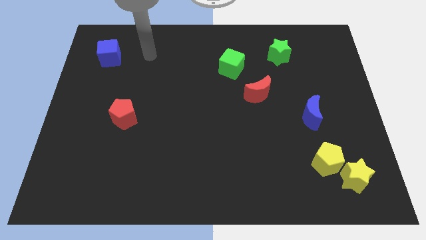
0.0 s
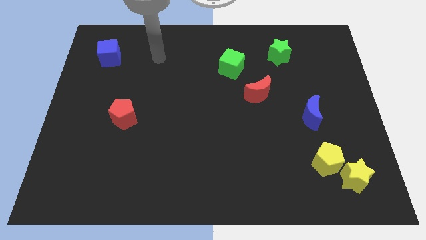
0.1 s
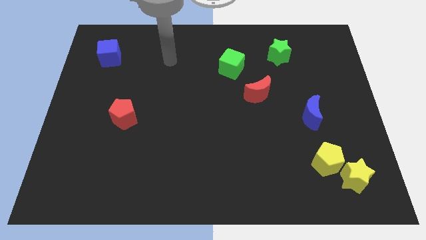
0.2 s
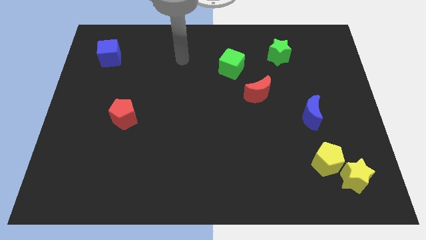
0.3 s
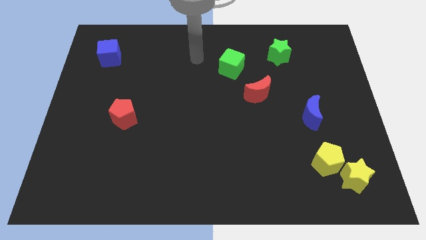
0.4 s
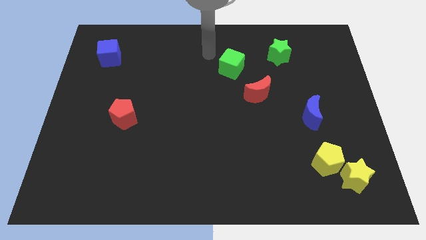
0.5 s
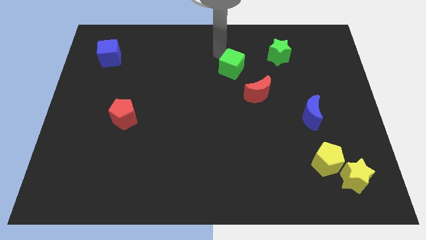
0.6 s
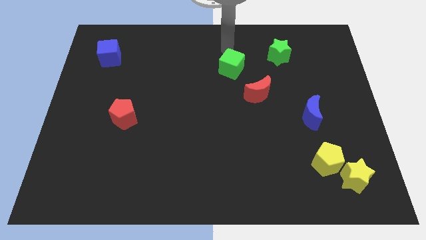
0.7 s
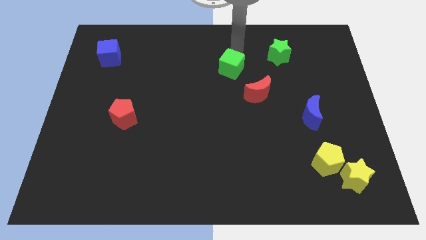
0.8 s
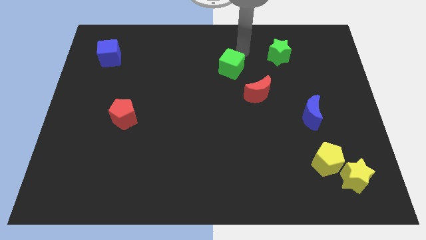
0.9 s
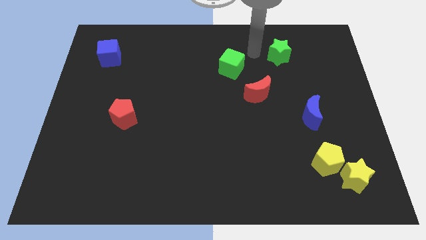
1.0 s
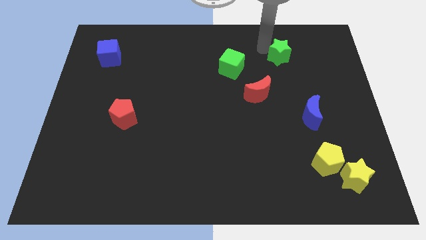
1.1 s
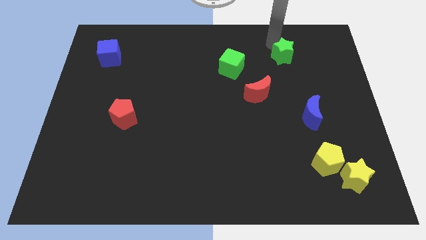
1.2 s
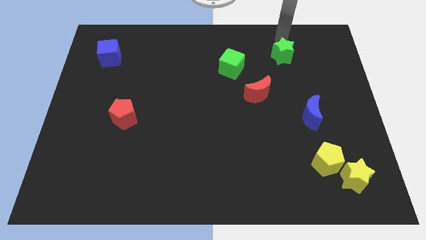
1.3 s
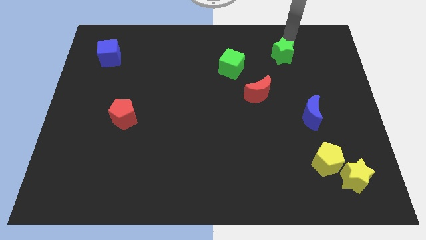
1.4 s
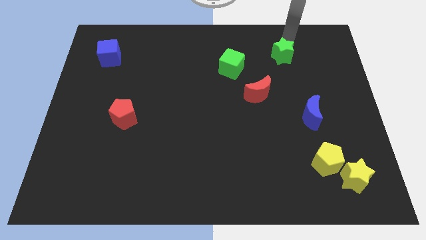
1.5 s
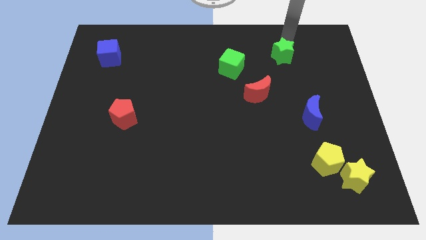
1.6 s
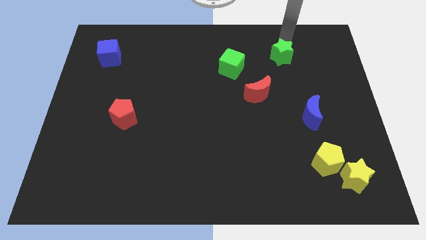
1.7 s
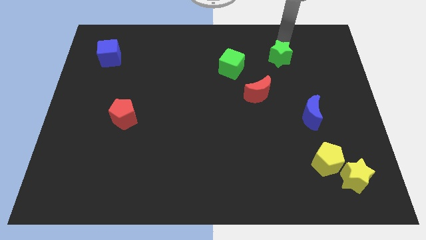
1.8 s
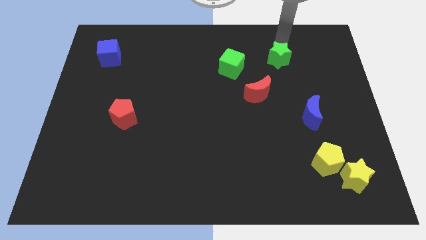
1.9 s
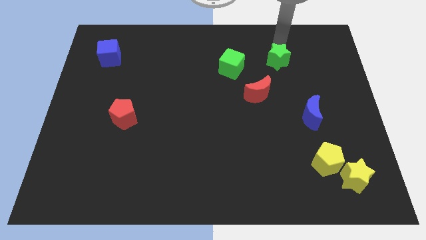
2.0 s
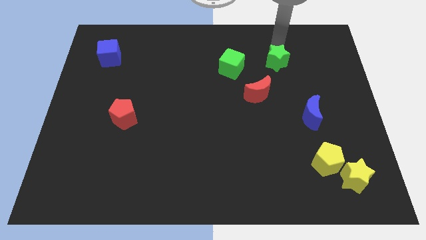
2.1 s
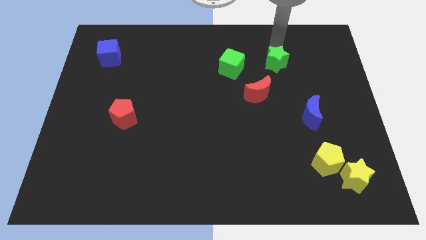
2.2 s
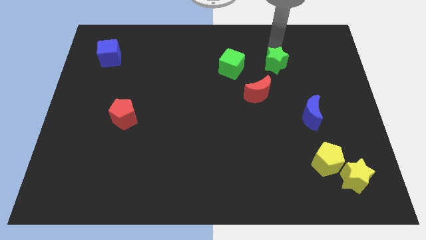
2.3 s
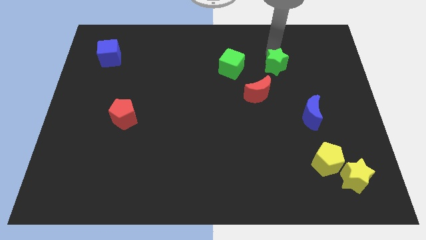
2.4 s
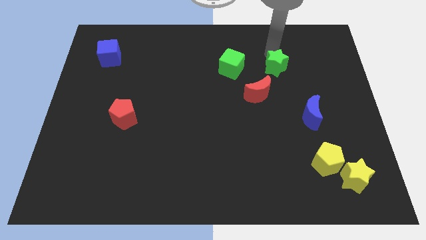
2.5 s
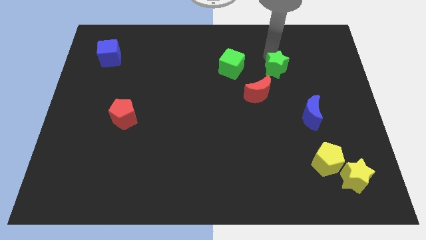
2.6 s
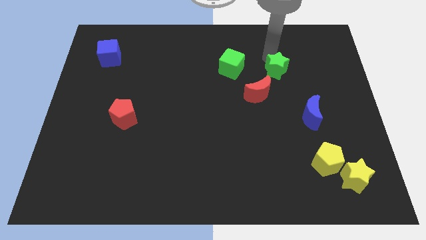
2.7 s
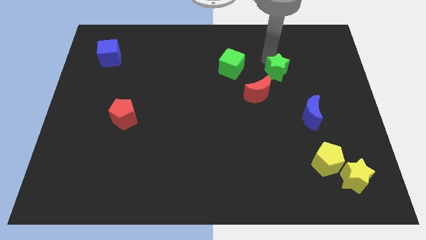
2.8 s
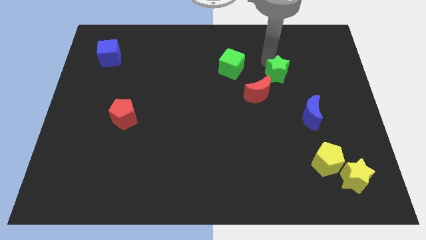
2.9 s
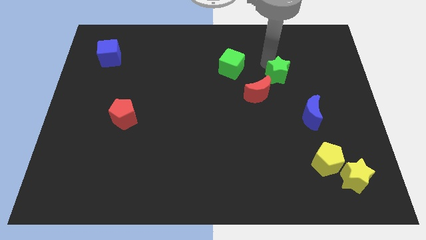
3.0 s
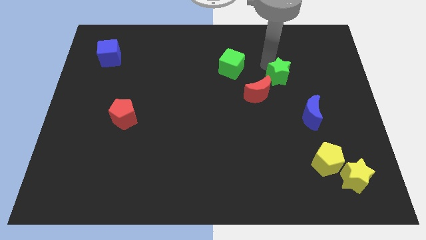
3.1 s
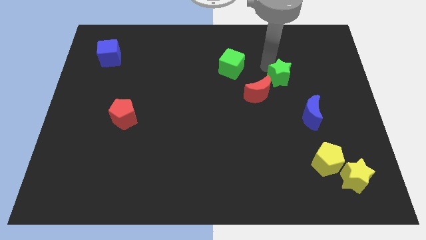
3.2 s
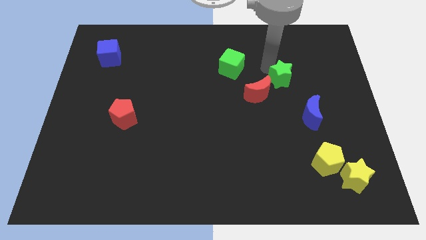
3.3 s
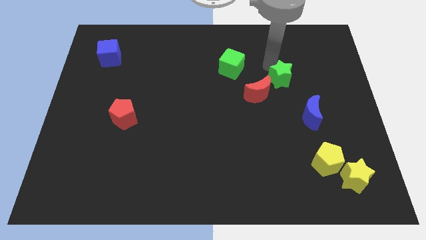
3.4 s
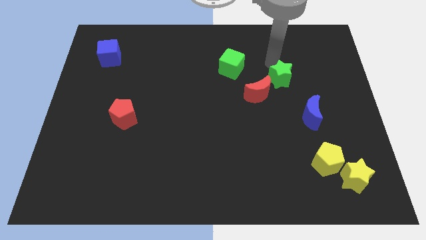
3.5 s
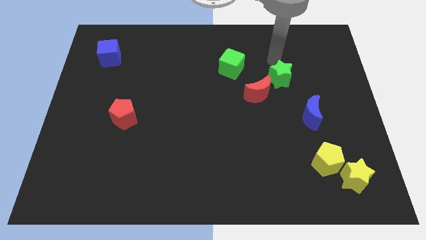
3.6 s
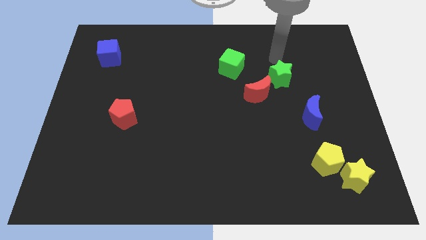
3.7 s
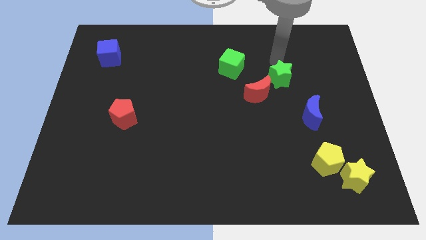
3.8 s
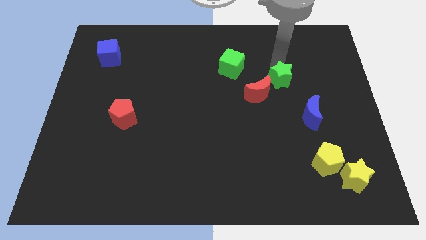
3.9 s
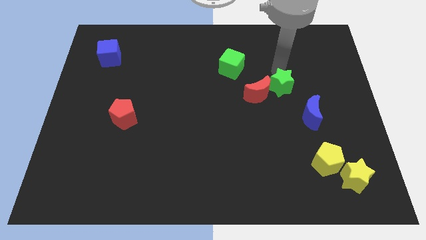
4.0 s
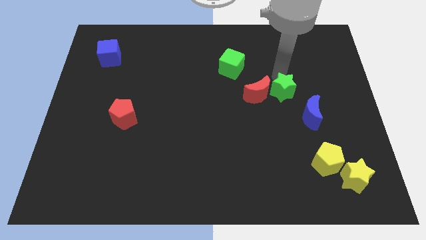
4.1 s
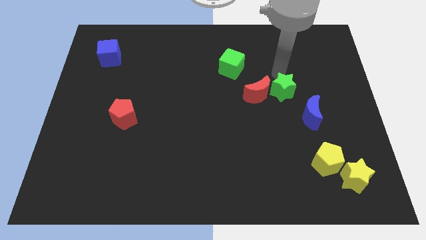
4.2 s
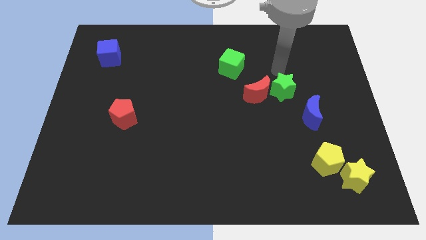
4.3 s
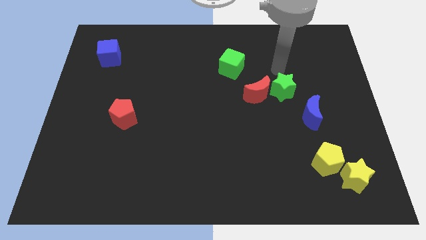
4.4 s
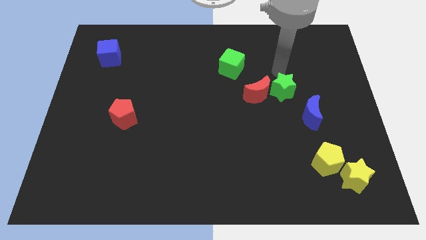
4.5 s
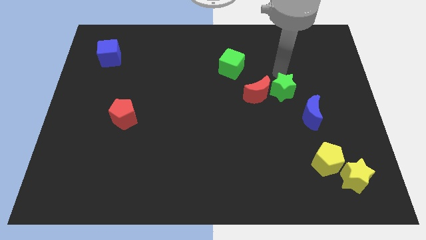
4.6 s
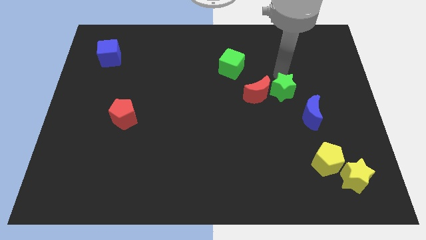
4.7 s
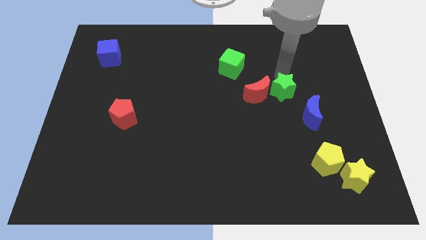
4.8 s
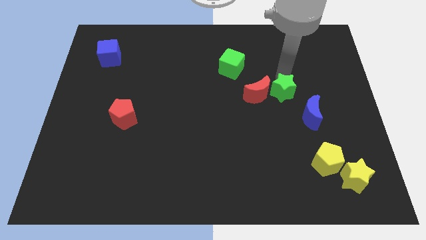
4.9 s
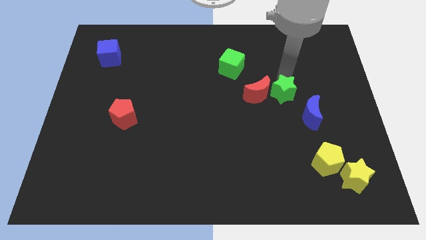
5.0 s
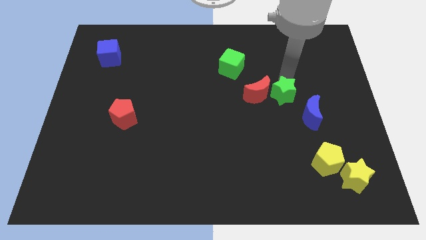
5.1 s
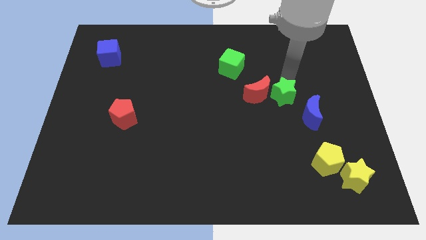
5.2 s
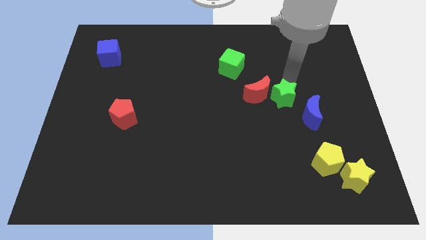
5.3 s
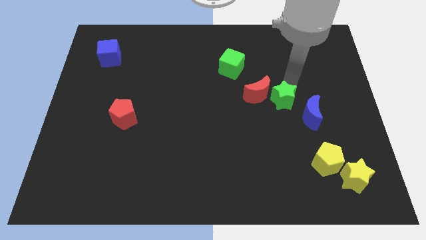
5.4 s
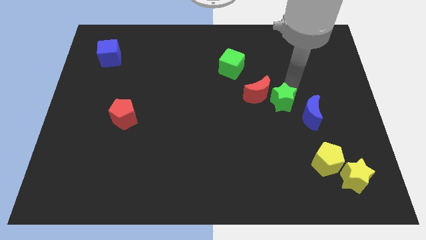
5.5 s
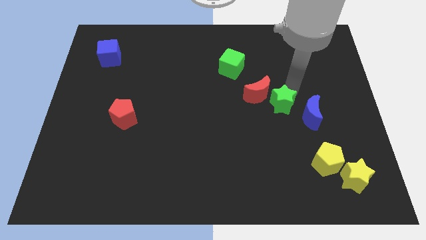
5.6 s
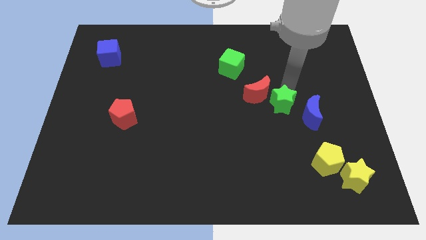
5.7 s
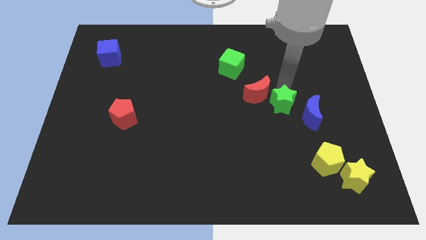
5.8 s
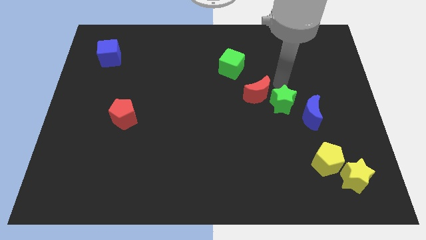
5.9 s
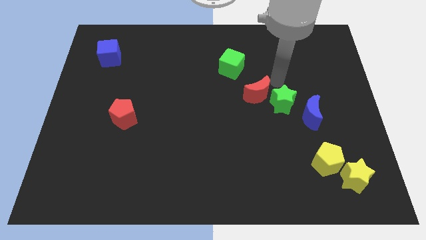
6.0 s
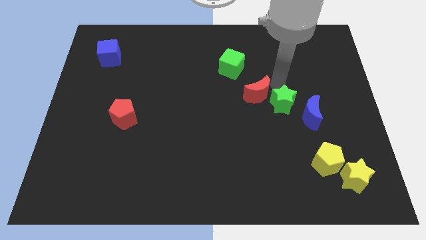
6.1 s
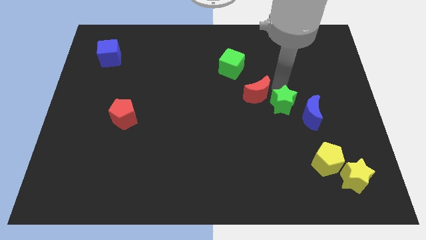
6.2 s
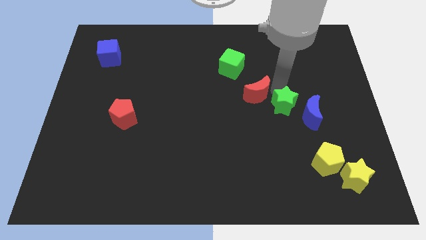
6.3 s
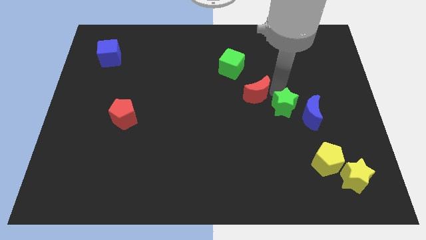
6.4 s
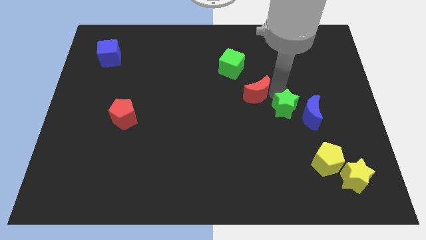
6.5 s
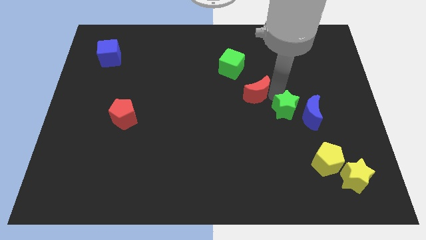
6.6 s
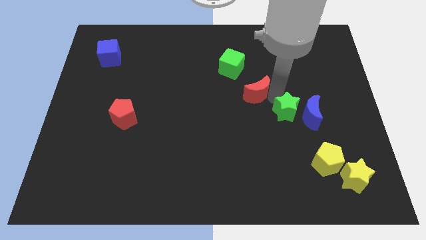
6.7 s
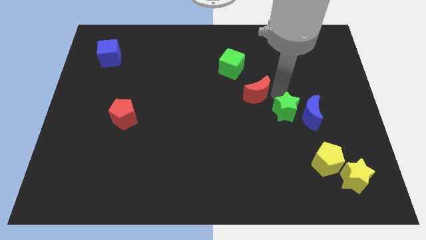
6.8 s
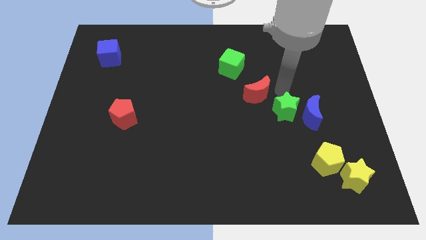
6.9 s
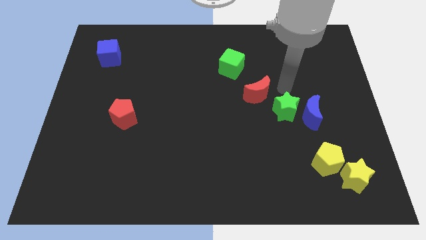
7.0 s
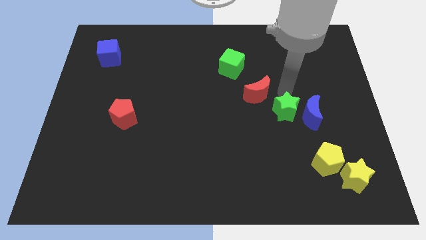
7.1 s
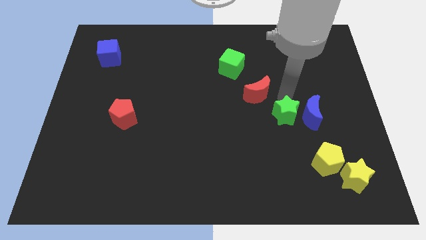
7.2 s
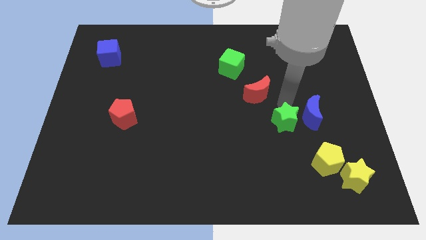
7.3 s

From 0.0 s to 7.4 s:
slide the green star downwards
